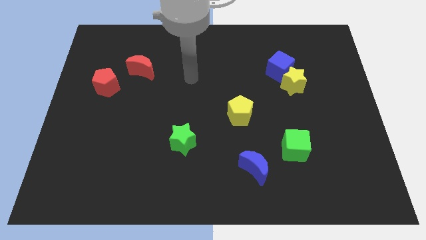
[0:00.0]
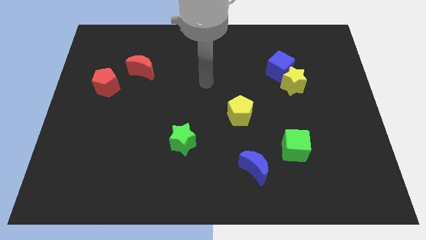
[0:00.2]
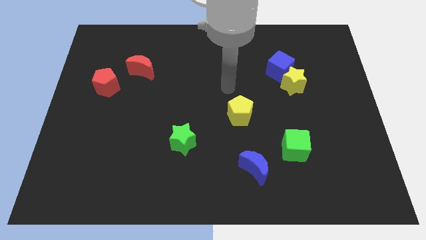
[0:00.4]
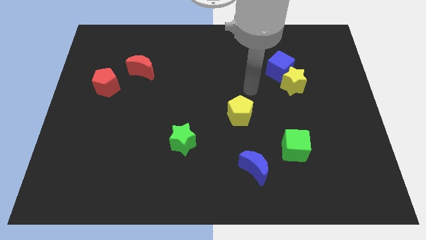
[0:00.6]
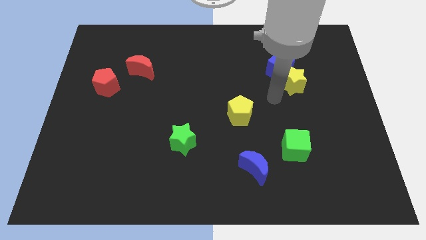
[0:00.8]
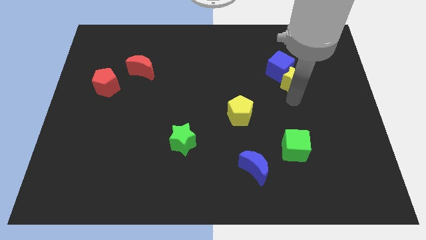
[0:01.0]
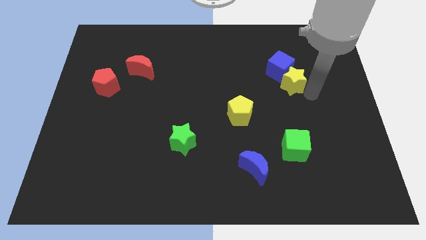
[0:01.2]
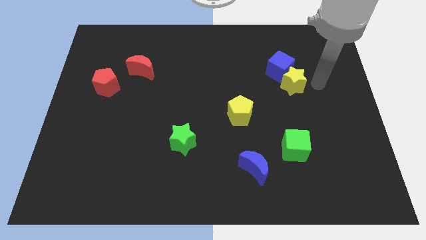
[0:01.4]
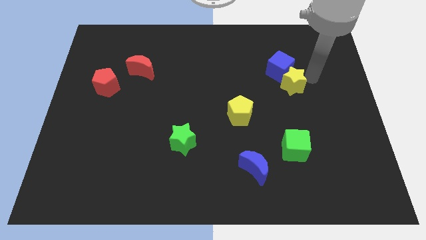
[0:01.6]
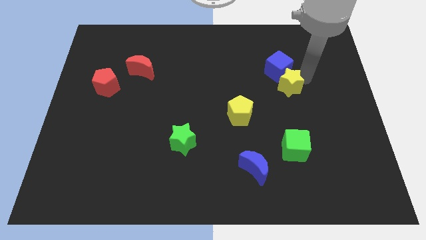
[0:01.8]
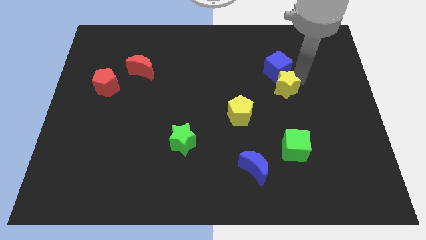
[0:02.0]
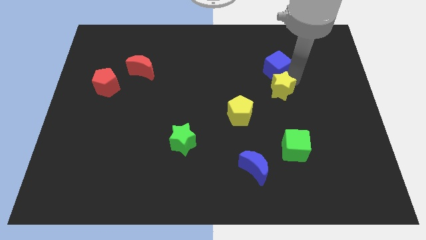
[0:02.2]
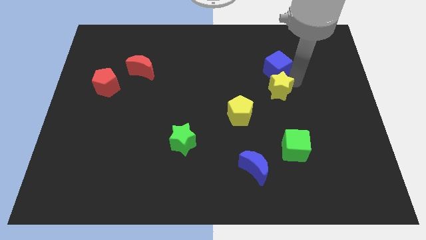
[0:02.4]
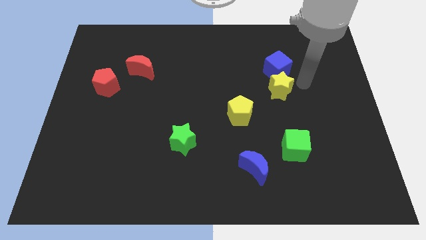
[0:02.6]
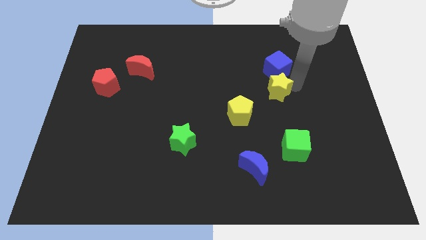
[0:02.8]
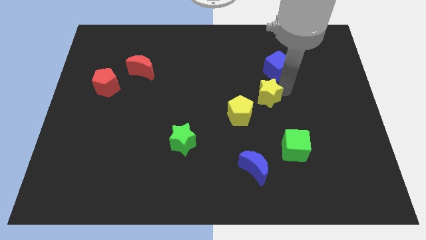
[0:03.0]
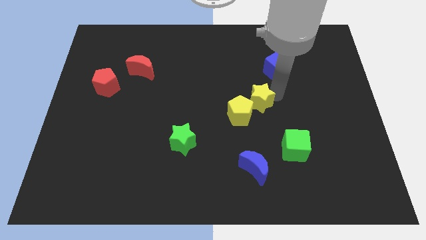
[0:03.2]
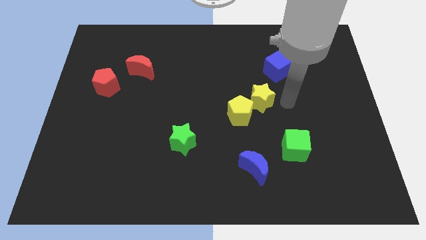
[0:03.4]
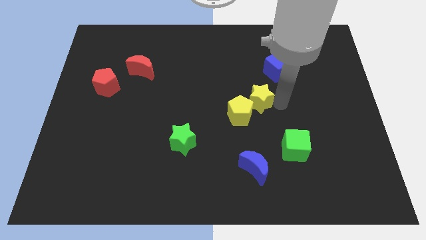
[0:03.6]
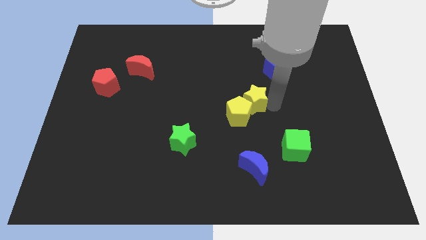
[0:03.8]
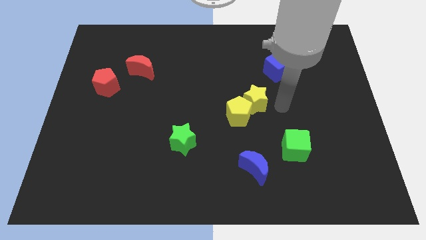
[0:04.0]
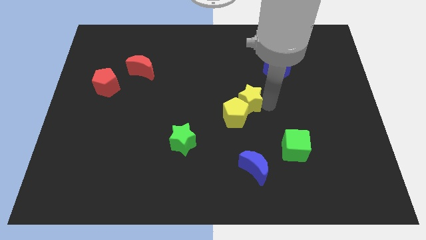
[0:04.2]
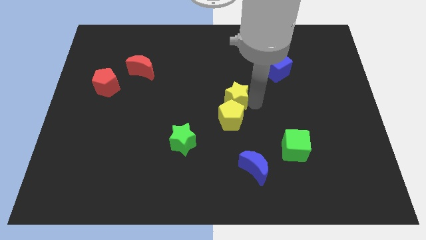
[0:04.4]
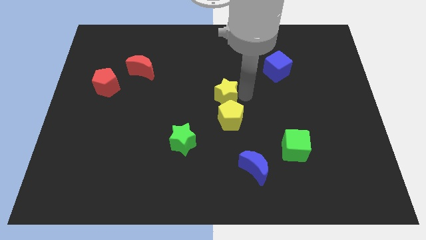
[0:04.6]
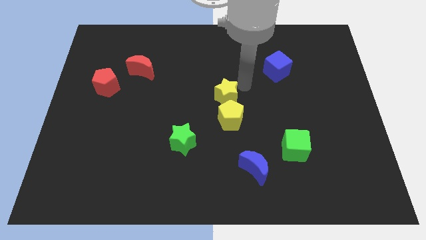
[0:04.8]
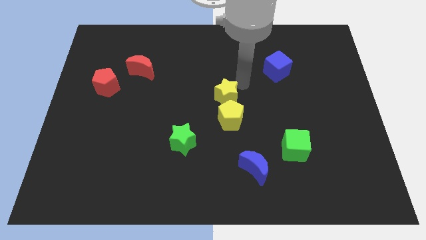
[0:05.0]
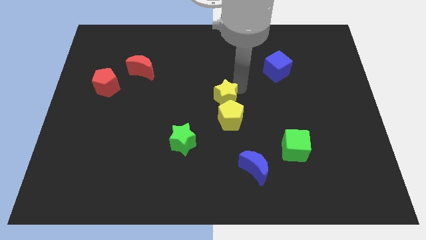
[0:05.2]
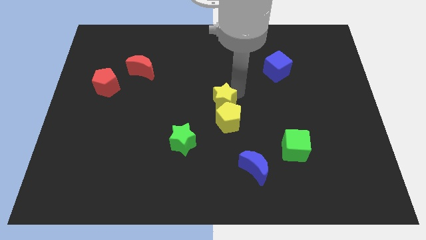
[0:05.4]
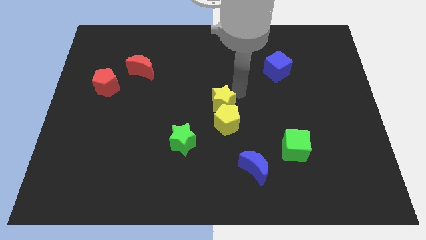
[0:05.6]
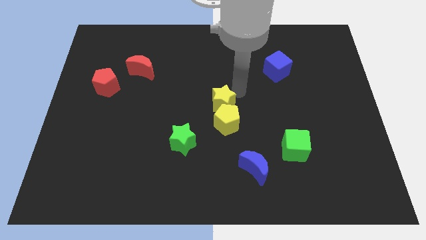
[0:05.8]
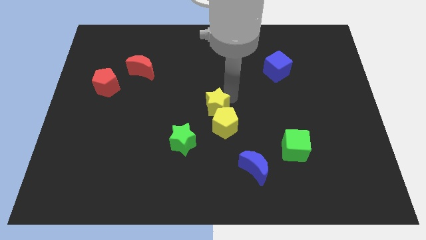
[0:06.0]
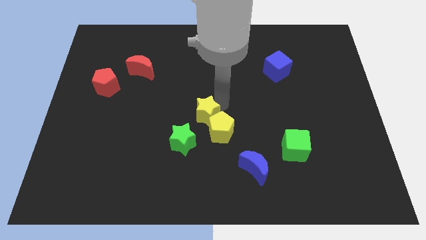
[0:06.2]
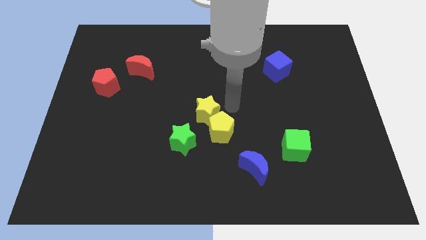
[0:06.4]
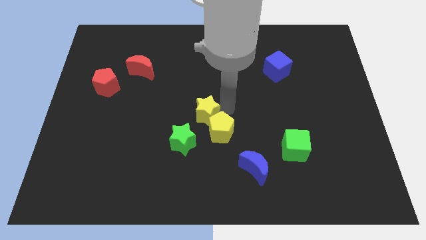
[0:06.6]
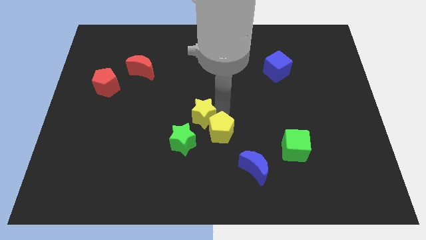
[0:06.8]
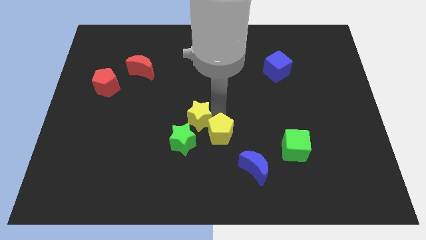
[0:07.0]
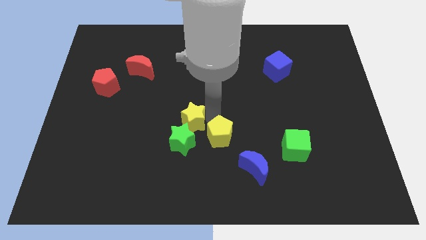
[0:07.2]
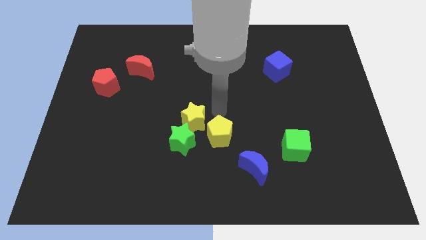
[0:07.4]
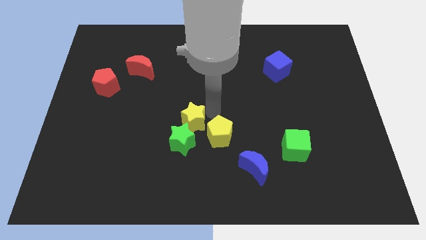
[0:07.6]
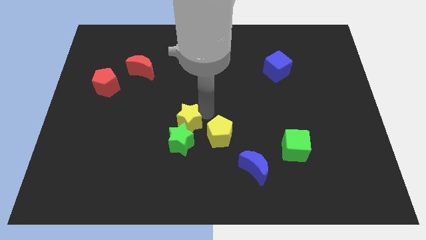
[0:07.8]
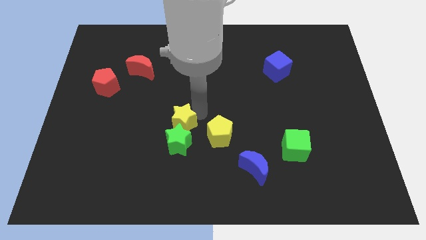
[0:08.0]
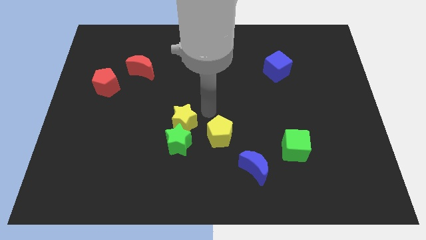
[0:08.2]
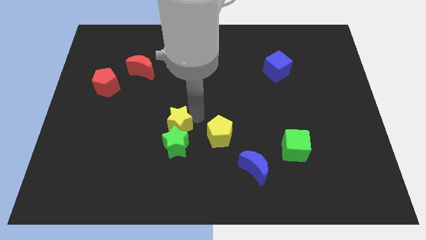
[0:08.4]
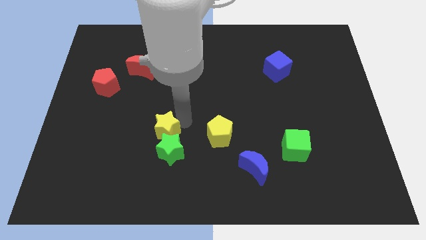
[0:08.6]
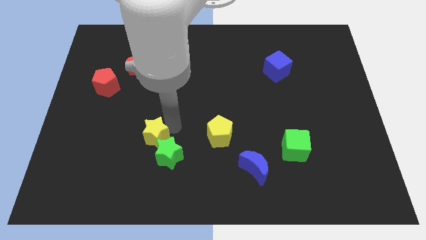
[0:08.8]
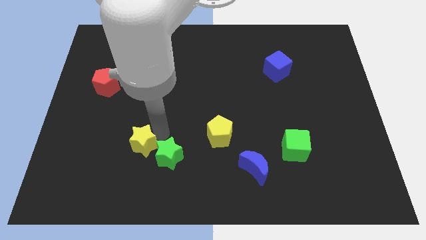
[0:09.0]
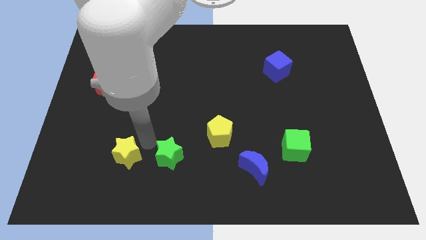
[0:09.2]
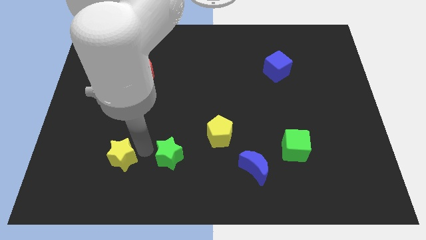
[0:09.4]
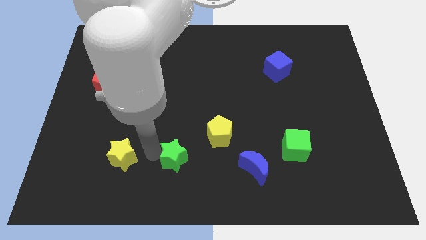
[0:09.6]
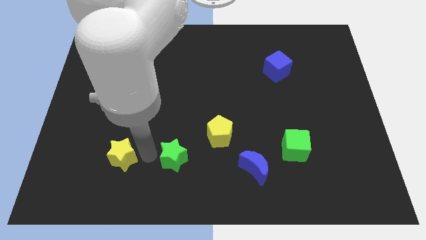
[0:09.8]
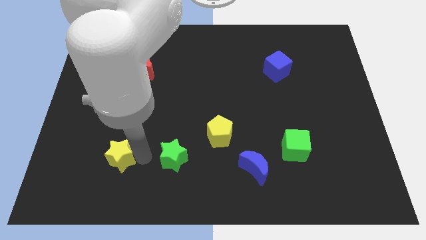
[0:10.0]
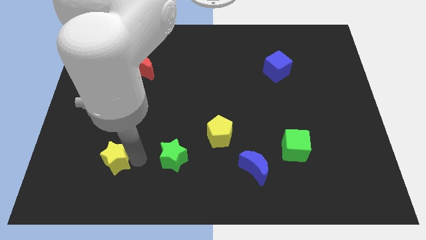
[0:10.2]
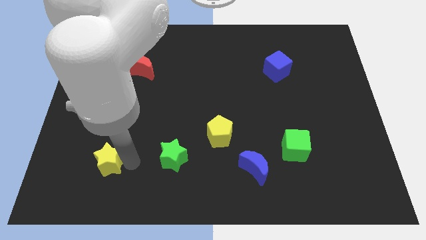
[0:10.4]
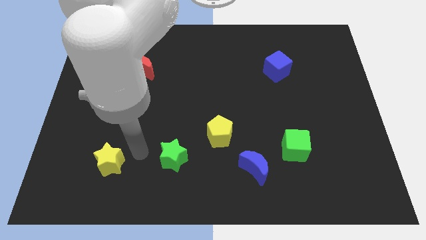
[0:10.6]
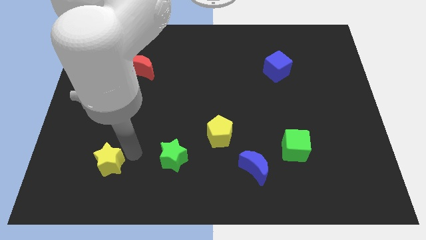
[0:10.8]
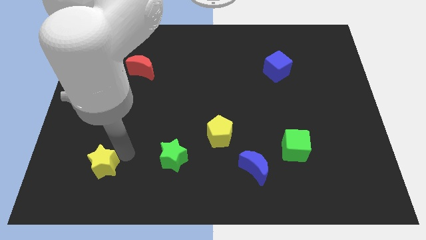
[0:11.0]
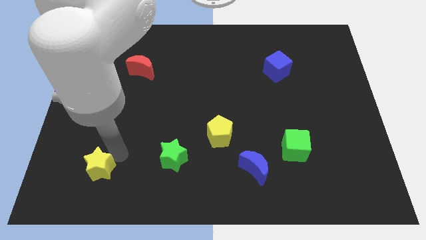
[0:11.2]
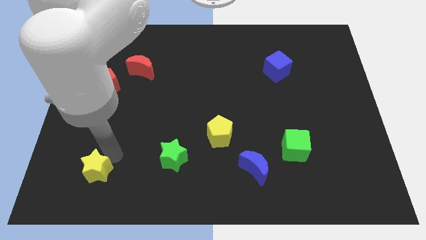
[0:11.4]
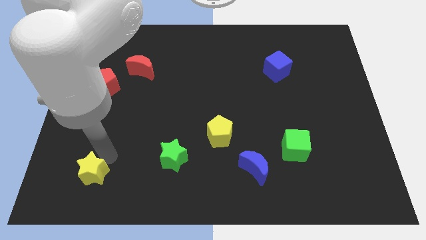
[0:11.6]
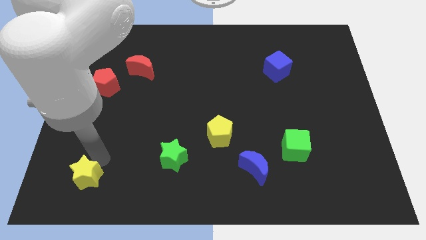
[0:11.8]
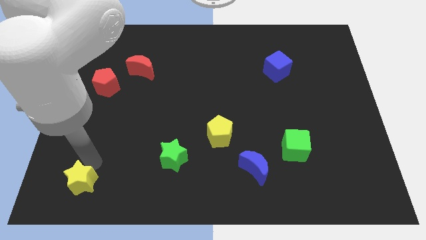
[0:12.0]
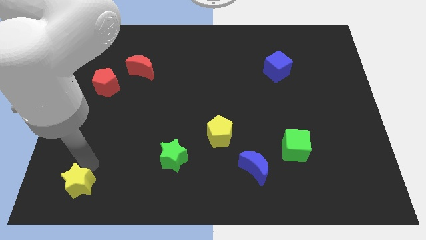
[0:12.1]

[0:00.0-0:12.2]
move the yellow star to the lower left corner

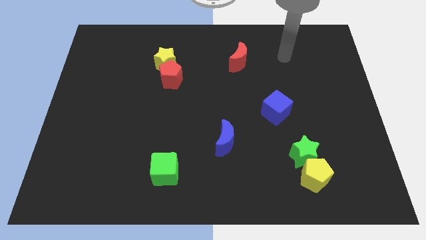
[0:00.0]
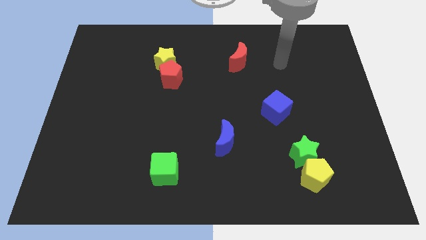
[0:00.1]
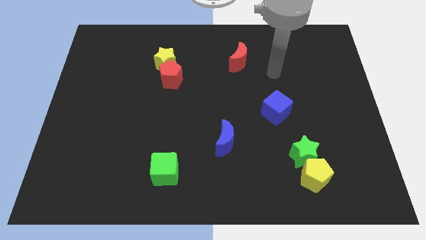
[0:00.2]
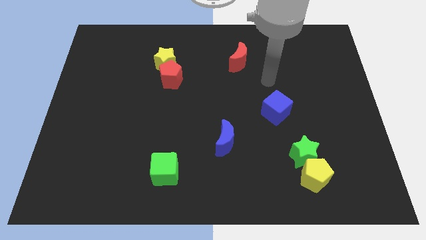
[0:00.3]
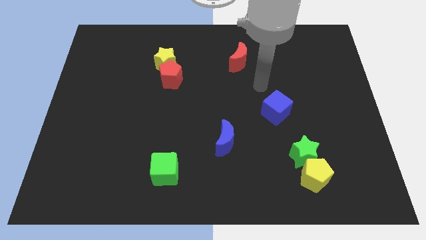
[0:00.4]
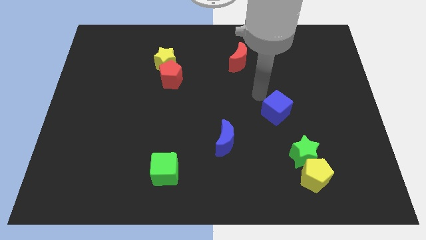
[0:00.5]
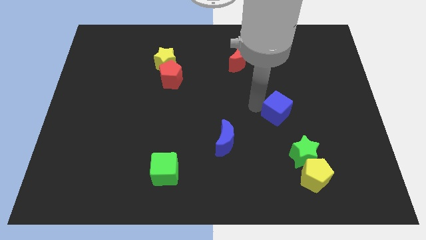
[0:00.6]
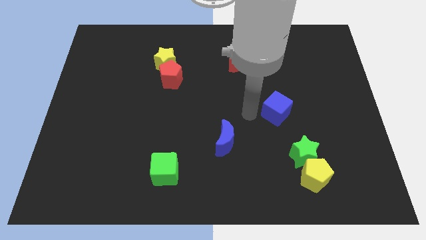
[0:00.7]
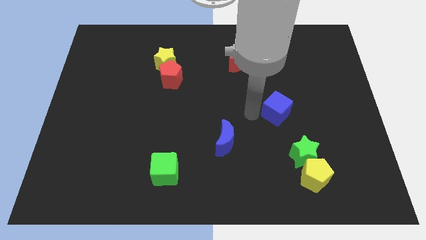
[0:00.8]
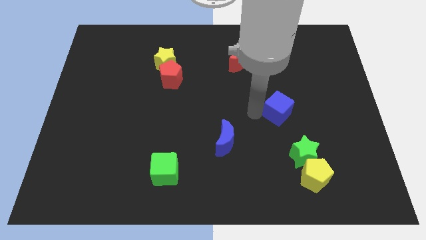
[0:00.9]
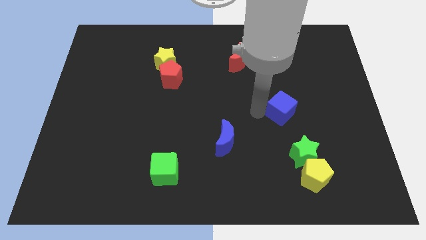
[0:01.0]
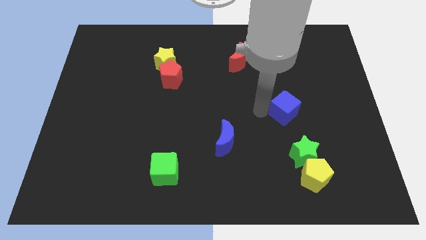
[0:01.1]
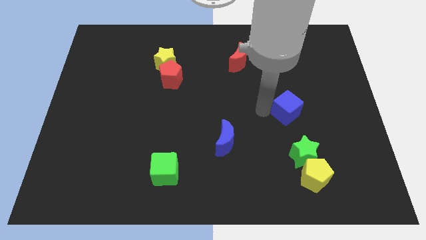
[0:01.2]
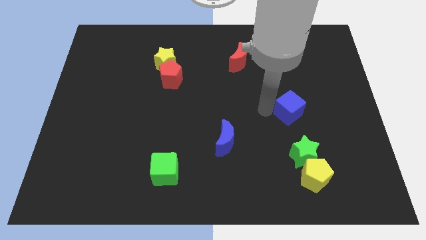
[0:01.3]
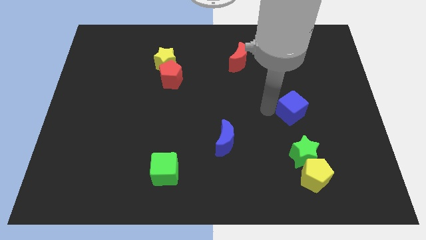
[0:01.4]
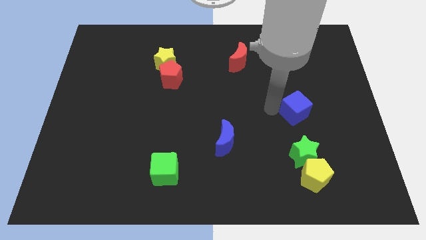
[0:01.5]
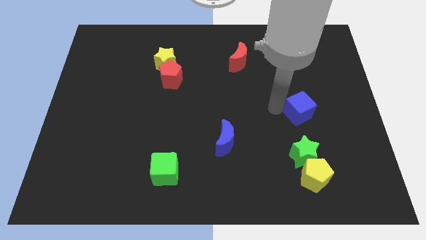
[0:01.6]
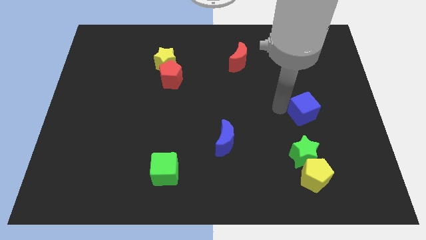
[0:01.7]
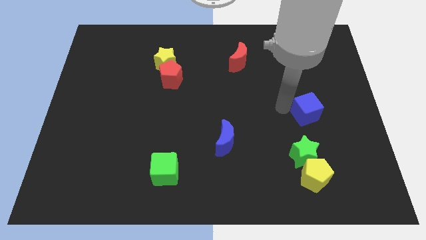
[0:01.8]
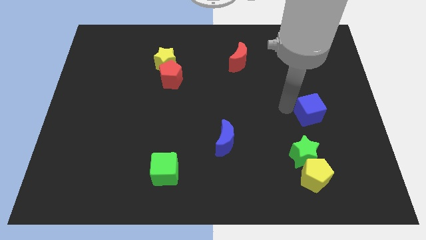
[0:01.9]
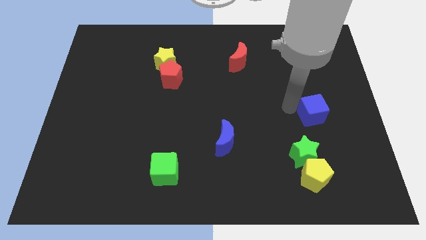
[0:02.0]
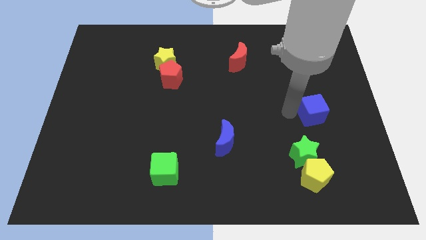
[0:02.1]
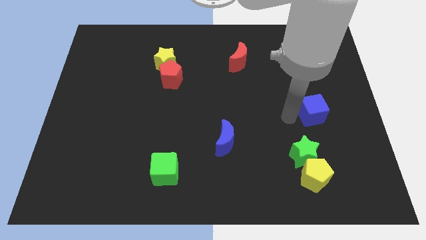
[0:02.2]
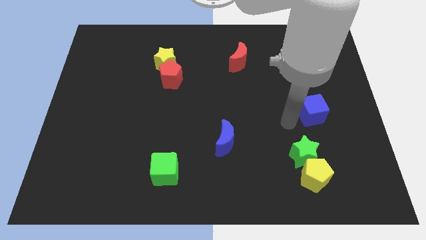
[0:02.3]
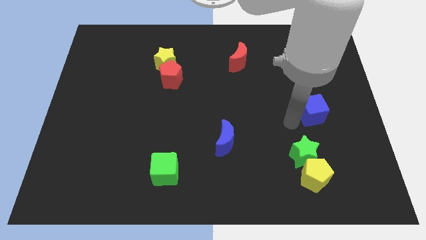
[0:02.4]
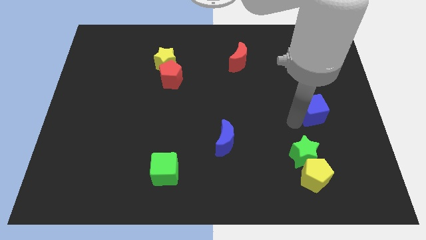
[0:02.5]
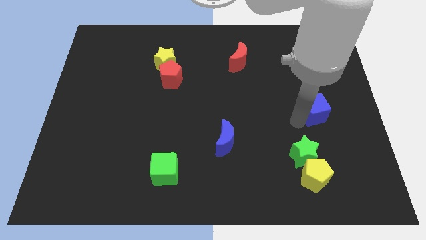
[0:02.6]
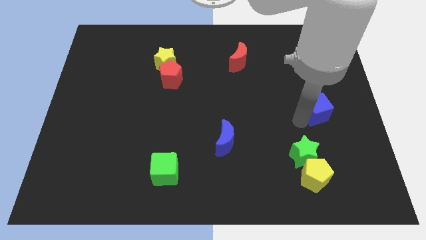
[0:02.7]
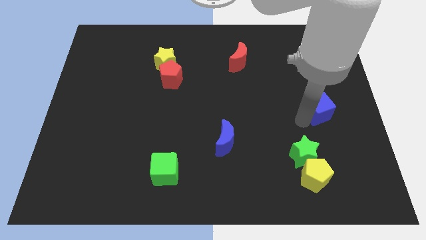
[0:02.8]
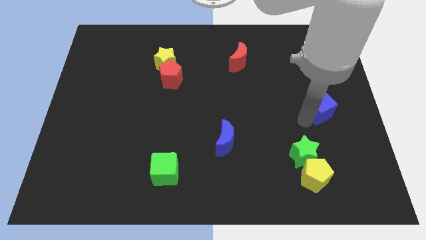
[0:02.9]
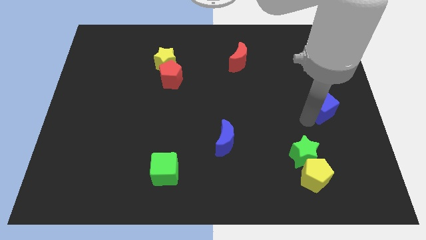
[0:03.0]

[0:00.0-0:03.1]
put the blue cube to the right side
